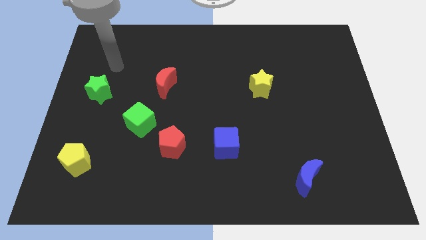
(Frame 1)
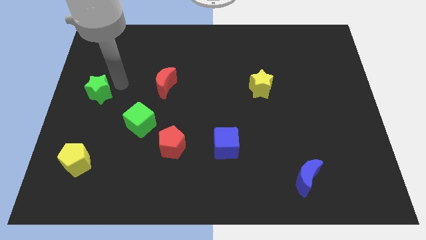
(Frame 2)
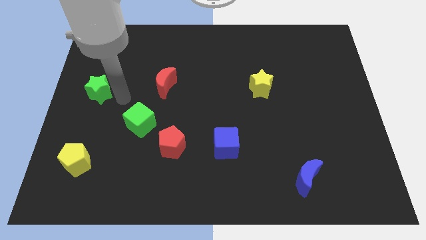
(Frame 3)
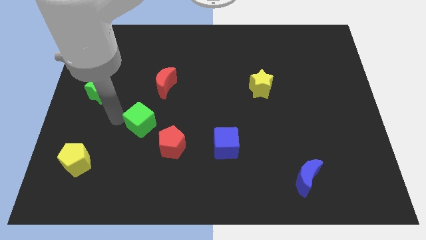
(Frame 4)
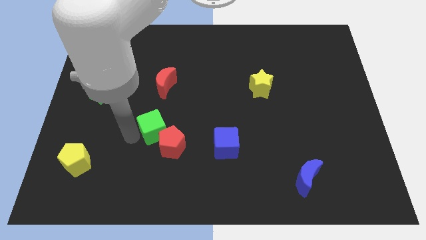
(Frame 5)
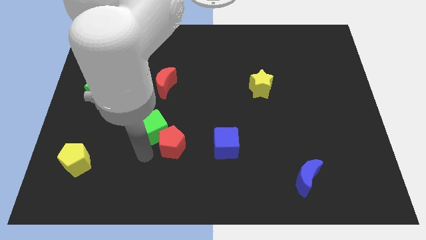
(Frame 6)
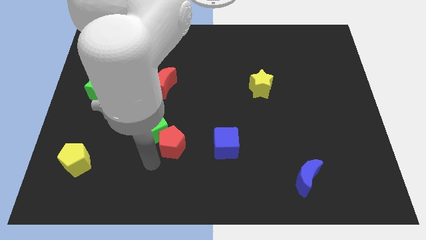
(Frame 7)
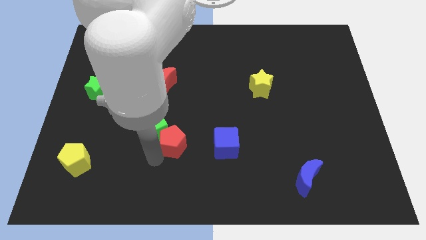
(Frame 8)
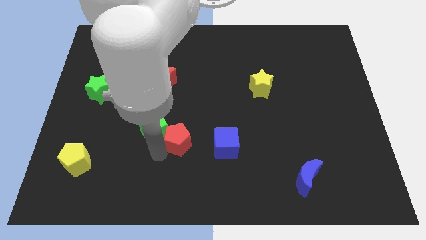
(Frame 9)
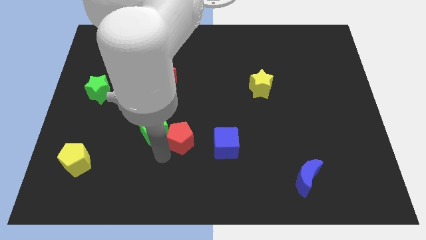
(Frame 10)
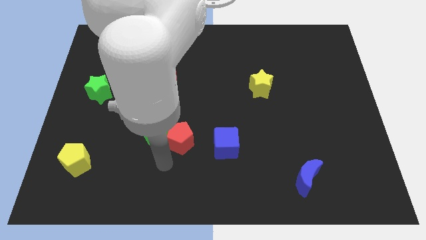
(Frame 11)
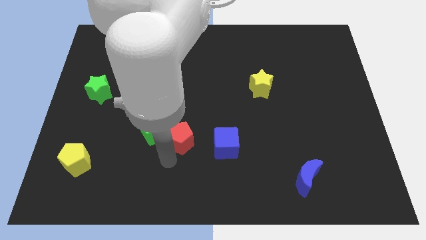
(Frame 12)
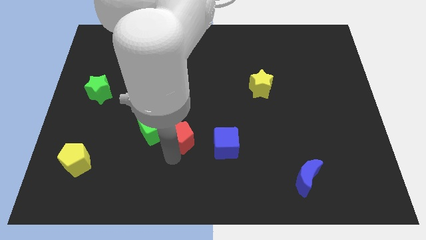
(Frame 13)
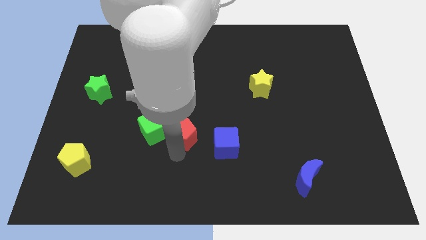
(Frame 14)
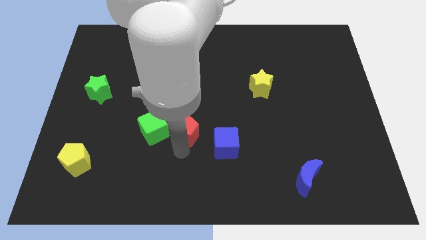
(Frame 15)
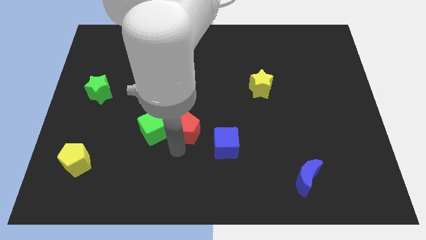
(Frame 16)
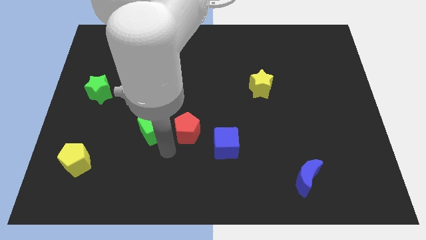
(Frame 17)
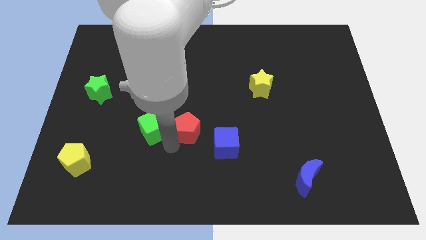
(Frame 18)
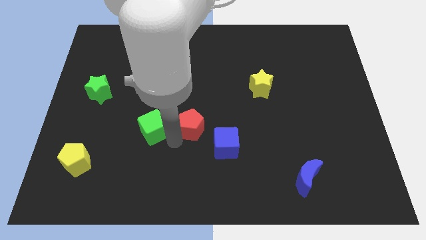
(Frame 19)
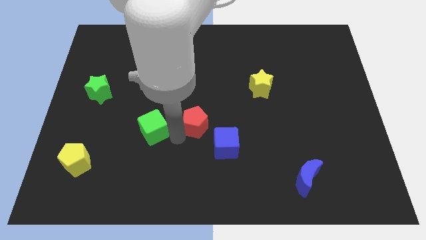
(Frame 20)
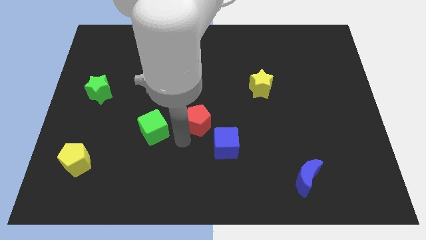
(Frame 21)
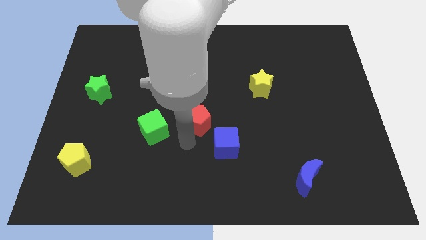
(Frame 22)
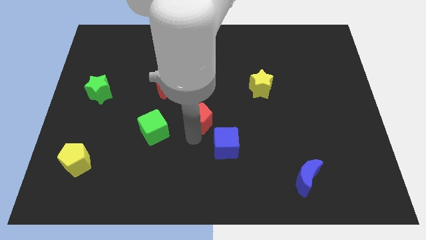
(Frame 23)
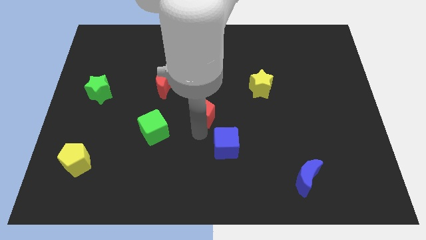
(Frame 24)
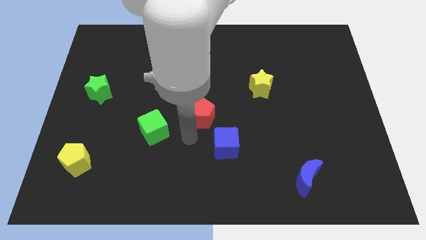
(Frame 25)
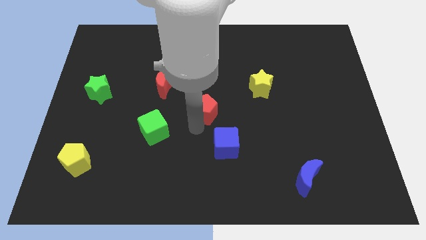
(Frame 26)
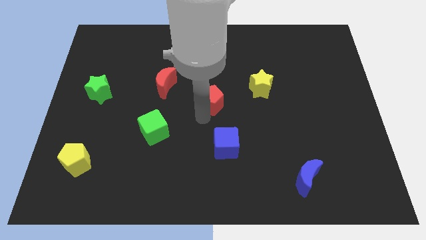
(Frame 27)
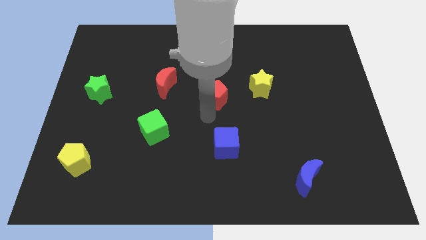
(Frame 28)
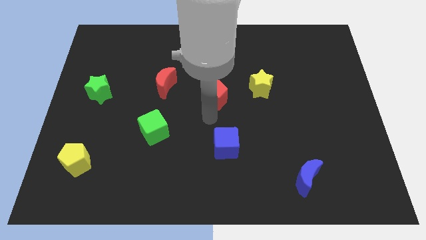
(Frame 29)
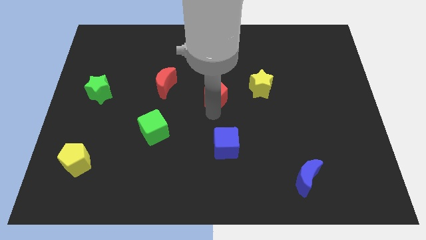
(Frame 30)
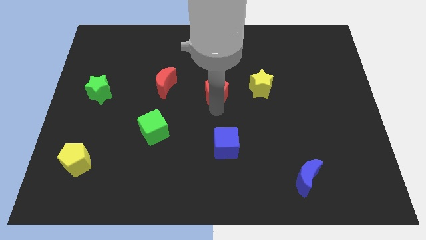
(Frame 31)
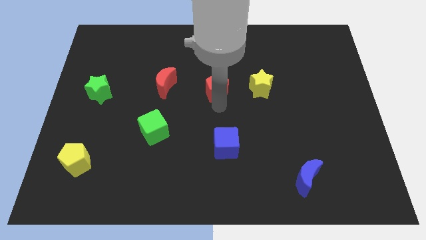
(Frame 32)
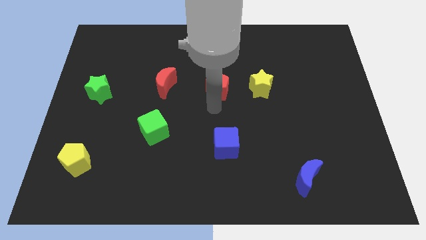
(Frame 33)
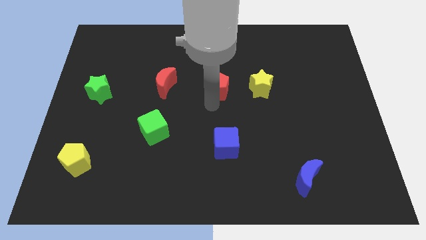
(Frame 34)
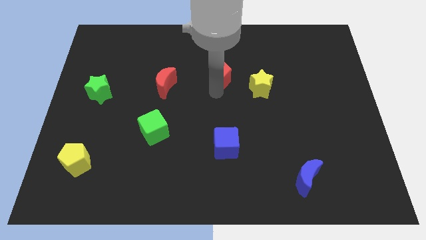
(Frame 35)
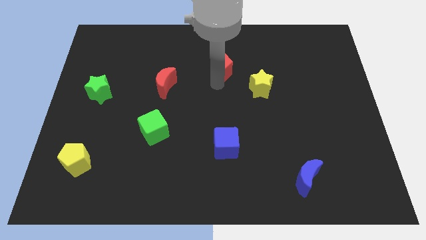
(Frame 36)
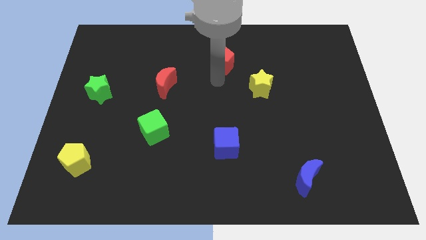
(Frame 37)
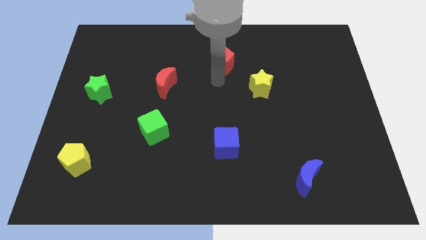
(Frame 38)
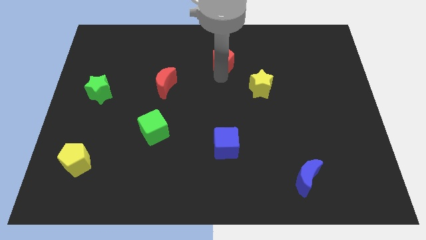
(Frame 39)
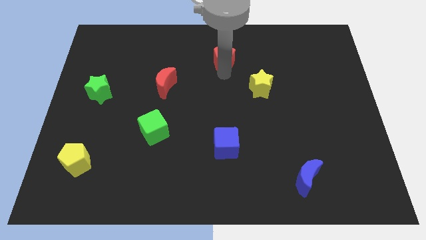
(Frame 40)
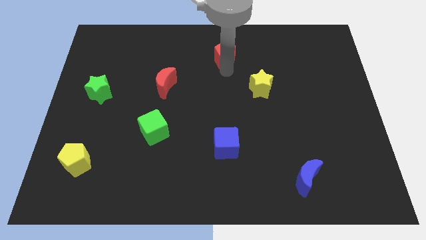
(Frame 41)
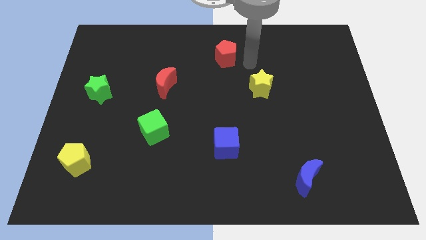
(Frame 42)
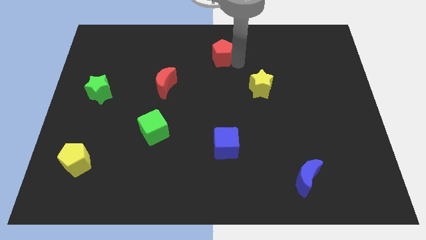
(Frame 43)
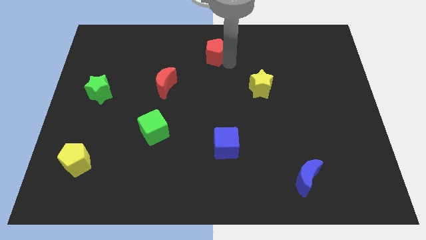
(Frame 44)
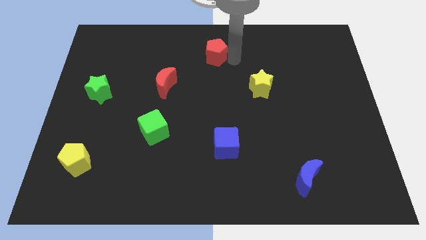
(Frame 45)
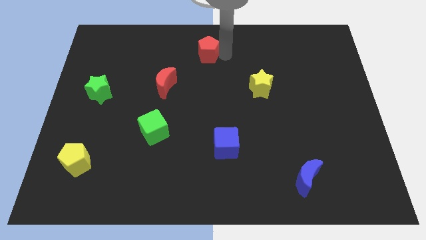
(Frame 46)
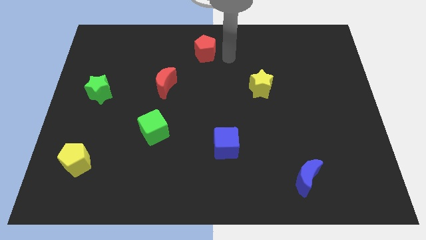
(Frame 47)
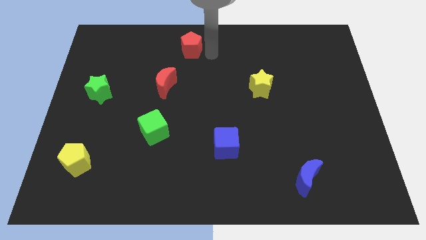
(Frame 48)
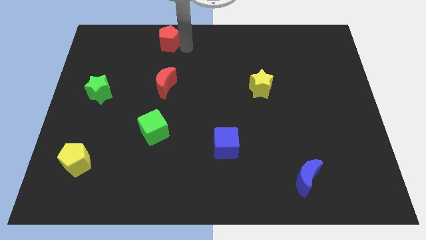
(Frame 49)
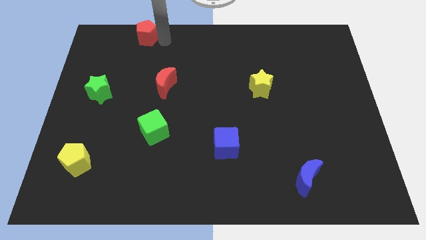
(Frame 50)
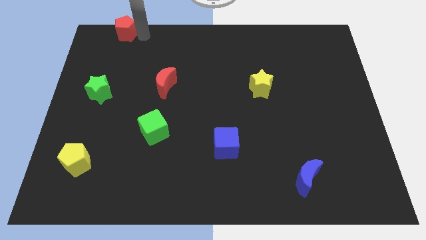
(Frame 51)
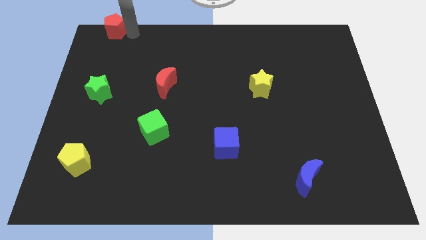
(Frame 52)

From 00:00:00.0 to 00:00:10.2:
put the red pentagon to the upper left corner

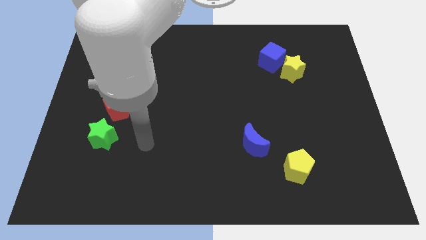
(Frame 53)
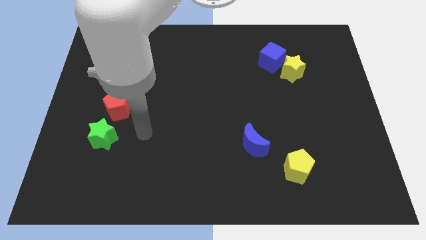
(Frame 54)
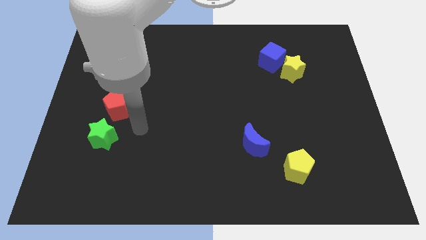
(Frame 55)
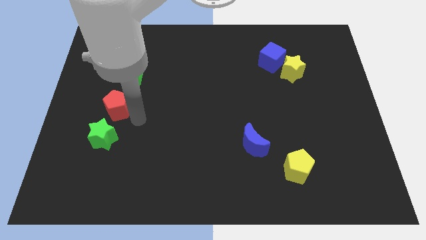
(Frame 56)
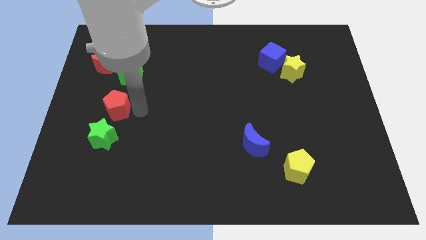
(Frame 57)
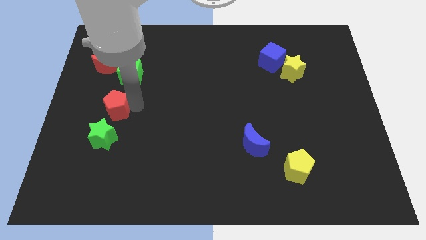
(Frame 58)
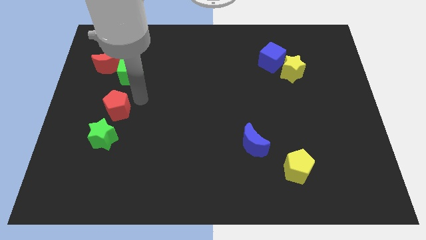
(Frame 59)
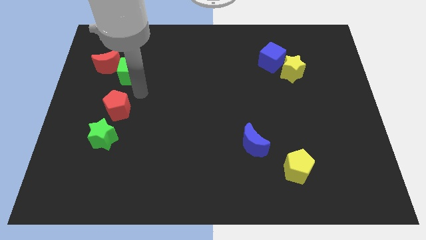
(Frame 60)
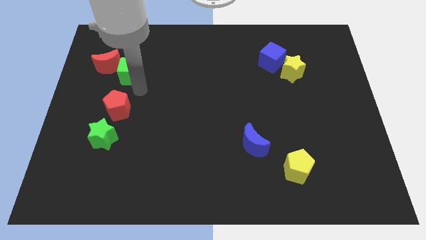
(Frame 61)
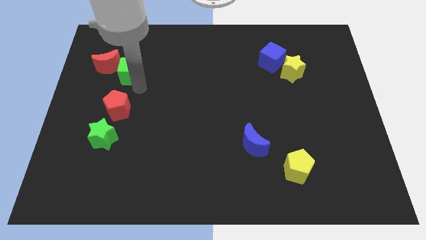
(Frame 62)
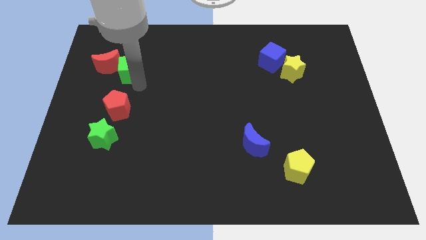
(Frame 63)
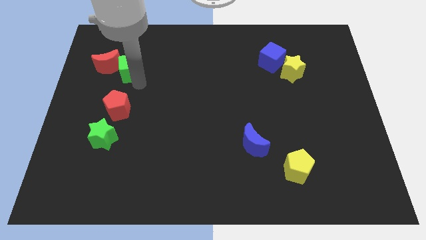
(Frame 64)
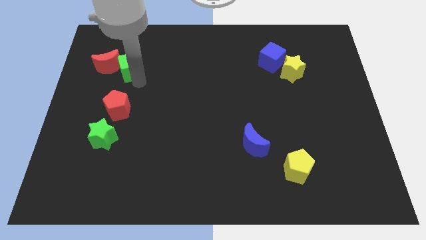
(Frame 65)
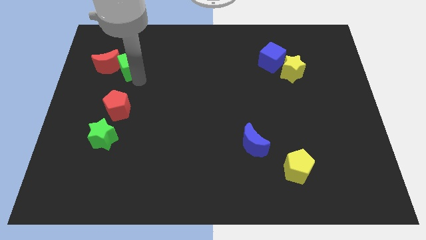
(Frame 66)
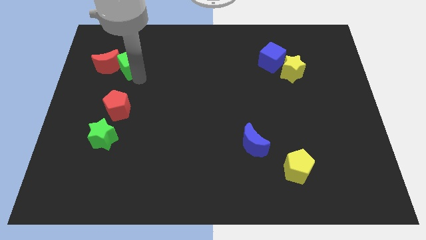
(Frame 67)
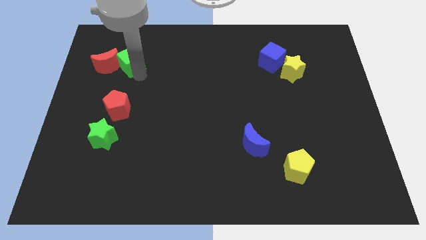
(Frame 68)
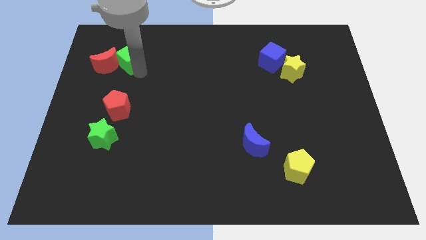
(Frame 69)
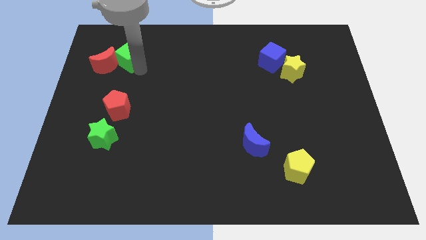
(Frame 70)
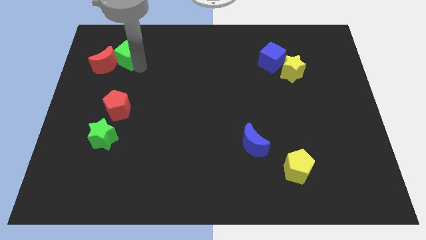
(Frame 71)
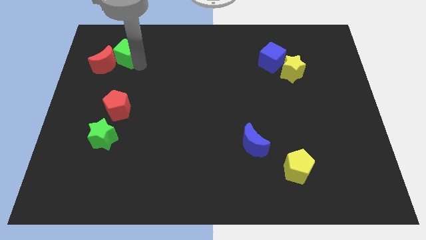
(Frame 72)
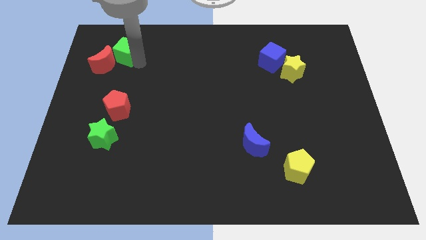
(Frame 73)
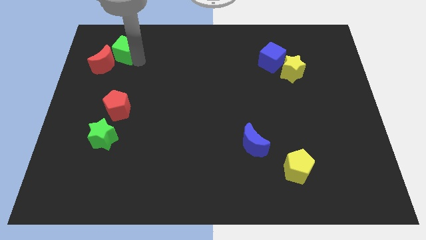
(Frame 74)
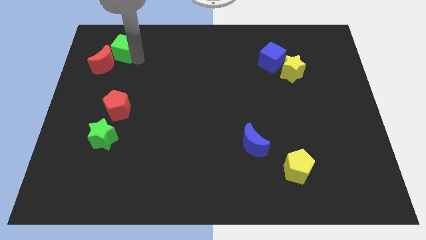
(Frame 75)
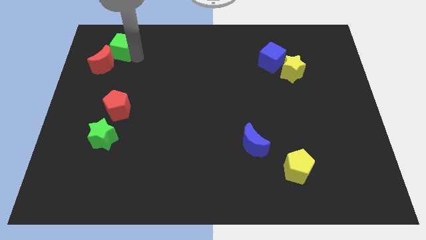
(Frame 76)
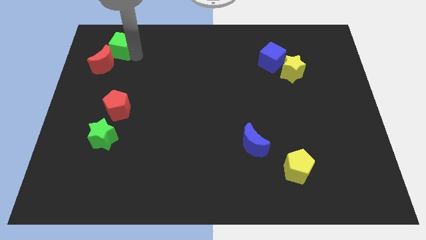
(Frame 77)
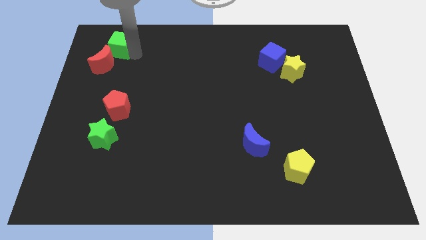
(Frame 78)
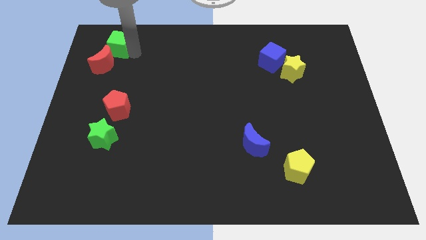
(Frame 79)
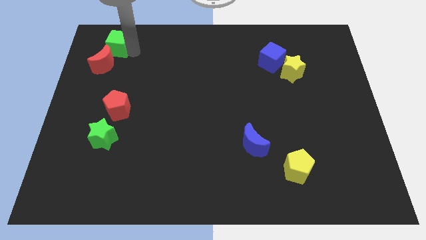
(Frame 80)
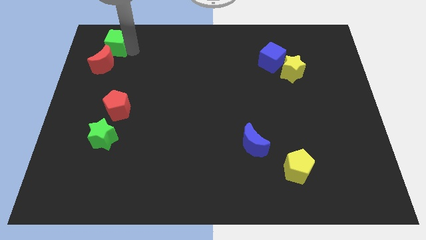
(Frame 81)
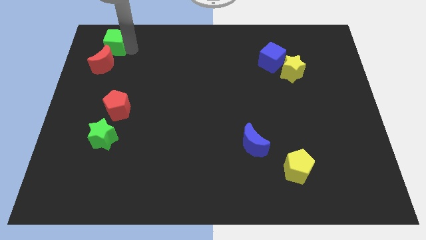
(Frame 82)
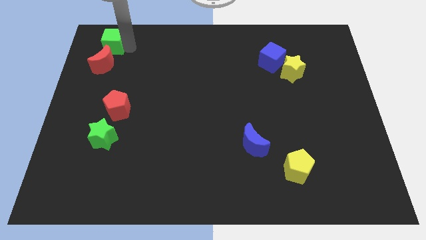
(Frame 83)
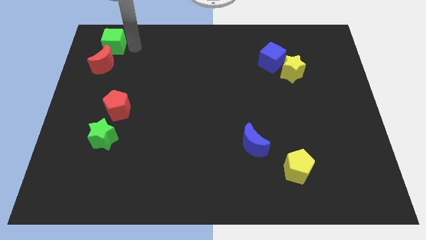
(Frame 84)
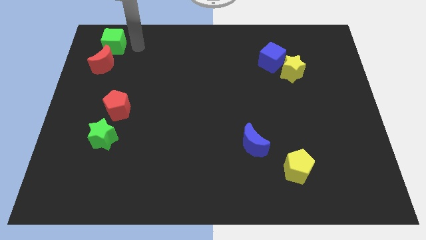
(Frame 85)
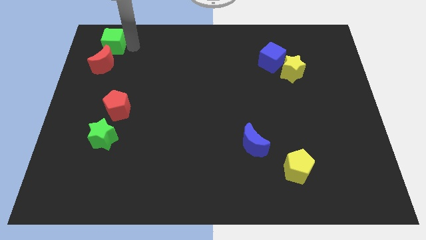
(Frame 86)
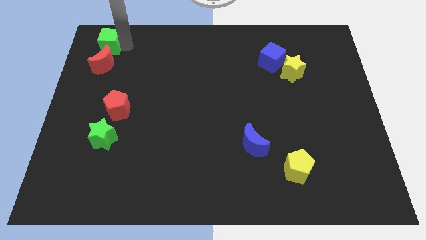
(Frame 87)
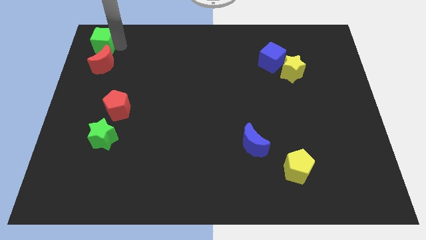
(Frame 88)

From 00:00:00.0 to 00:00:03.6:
slide the green cube to the upper left corner
